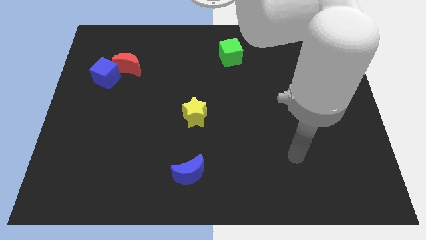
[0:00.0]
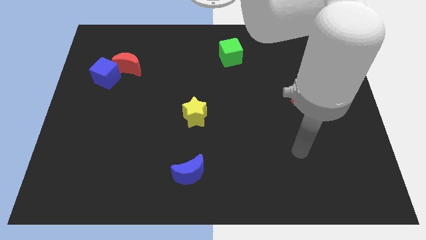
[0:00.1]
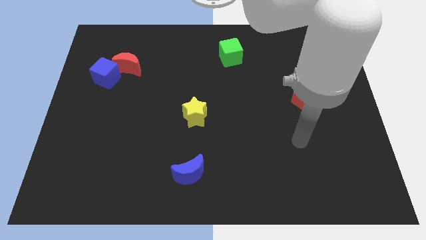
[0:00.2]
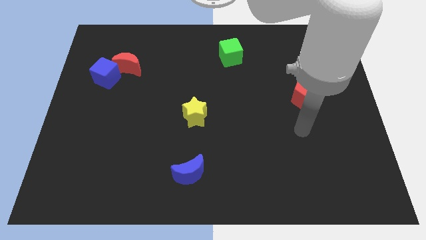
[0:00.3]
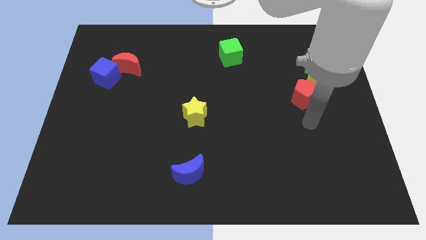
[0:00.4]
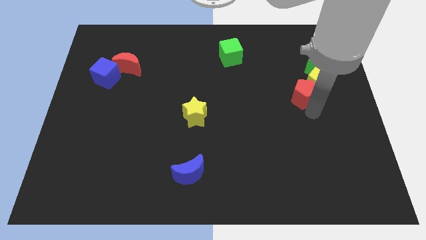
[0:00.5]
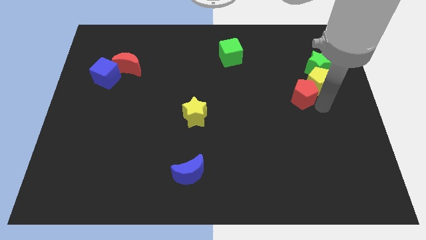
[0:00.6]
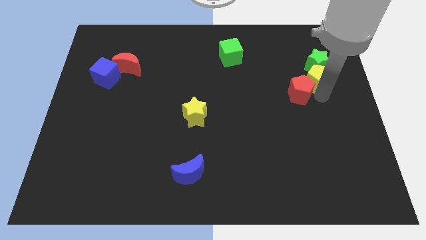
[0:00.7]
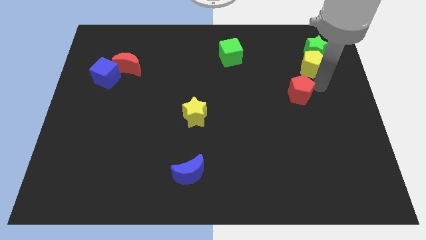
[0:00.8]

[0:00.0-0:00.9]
move the red pentagon away from the yellow pentagon

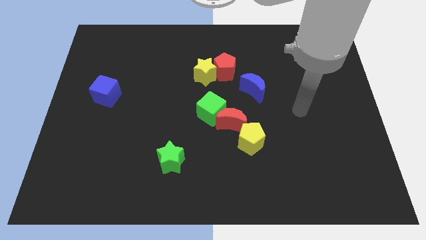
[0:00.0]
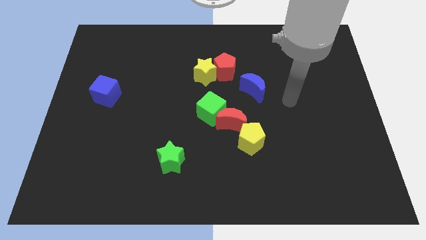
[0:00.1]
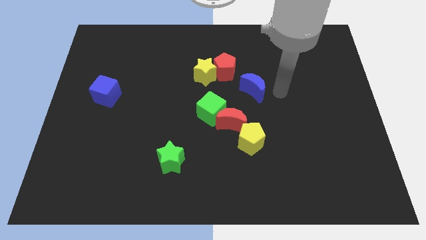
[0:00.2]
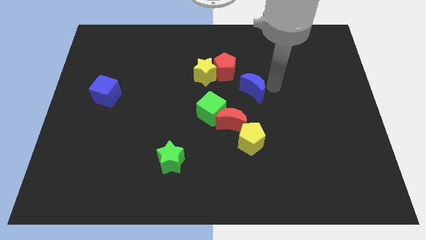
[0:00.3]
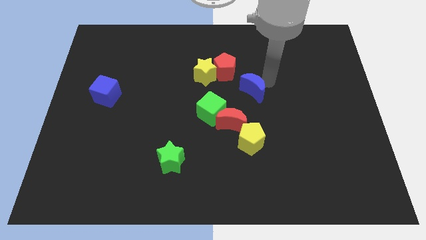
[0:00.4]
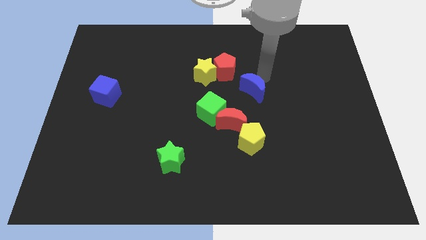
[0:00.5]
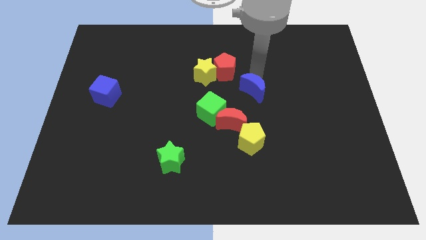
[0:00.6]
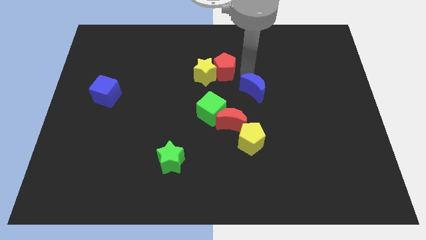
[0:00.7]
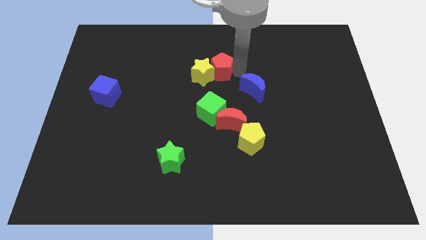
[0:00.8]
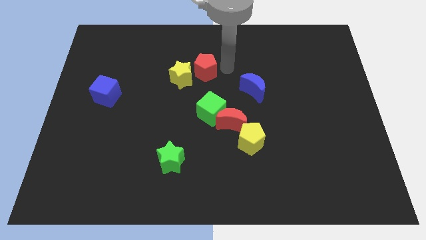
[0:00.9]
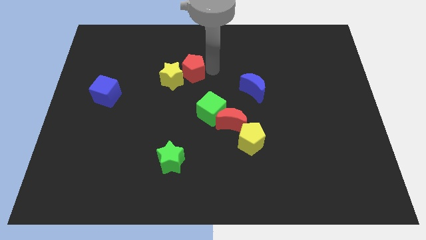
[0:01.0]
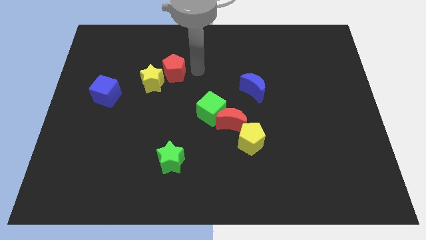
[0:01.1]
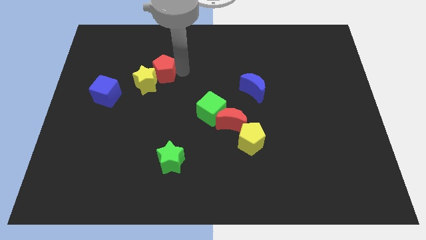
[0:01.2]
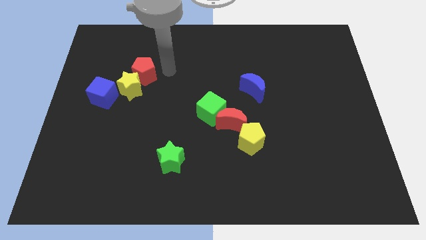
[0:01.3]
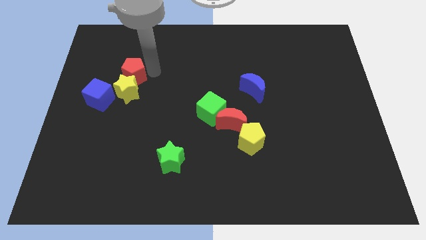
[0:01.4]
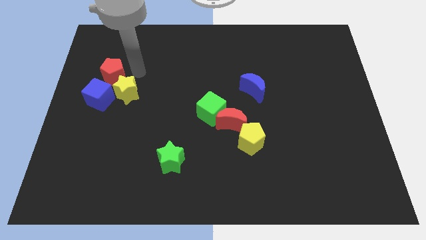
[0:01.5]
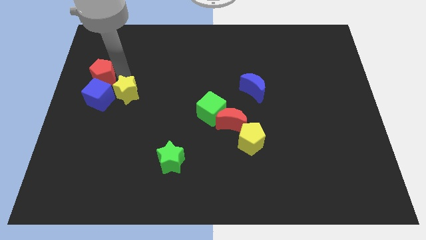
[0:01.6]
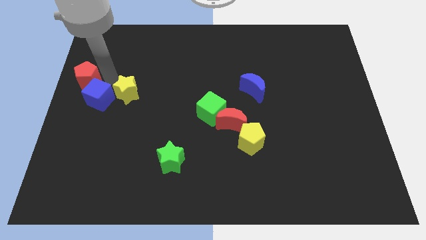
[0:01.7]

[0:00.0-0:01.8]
pull the yellow star apart from the red pentagon

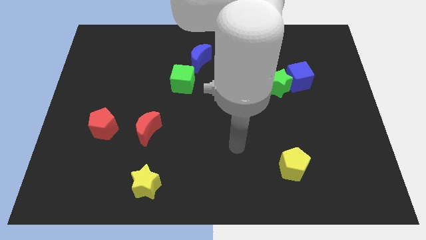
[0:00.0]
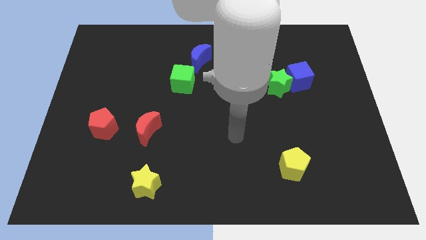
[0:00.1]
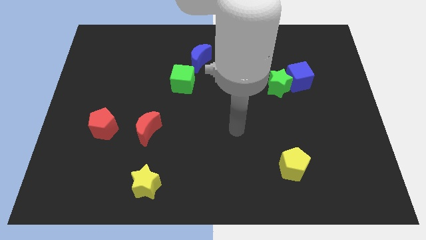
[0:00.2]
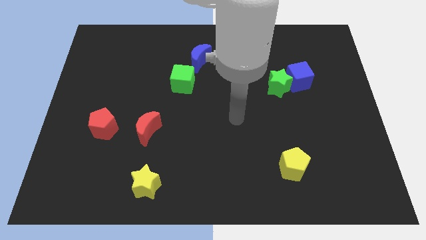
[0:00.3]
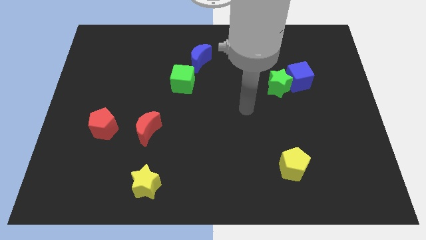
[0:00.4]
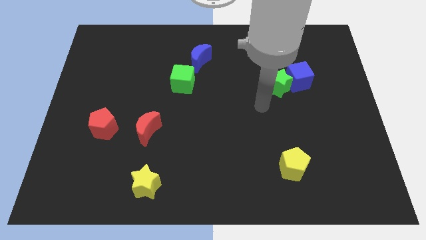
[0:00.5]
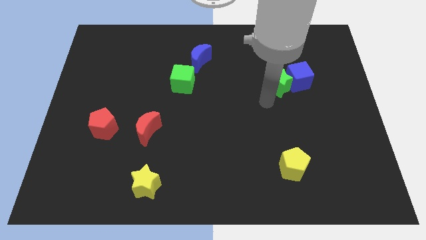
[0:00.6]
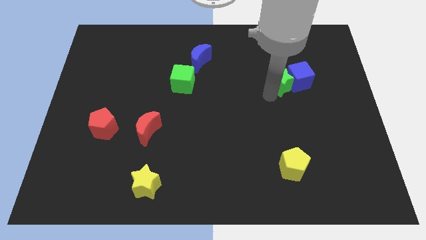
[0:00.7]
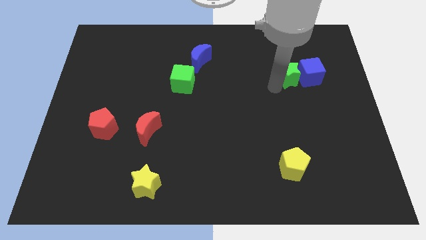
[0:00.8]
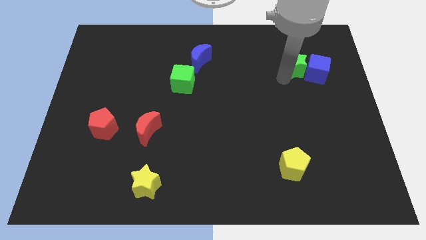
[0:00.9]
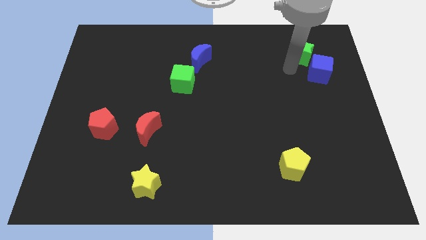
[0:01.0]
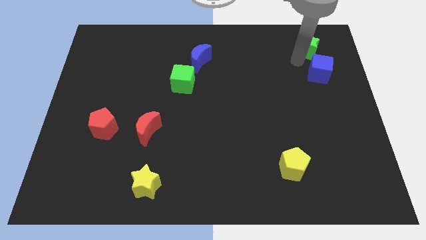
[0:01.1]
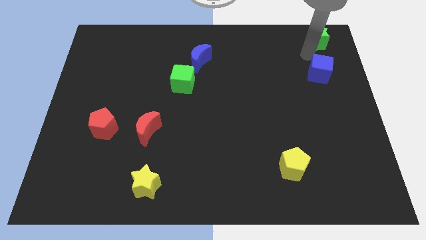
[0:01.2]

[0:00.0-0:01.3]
move the blue cube away from the green star

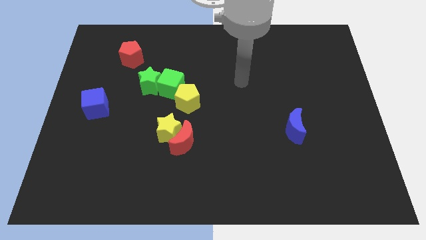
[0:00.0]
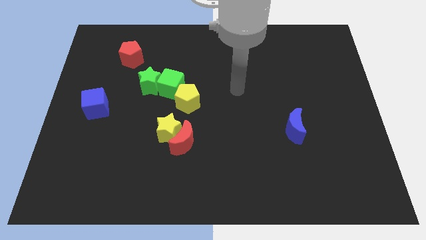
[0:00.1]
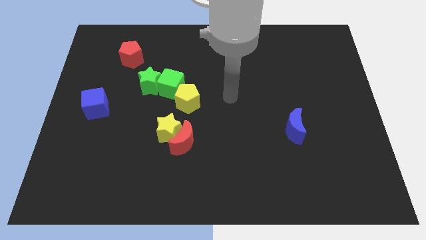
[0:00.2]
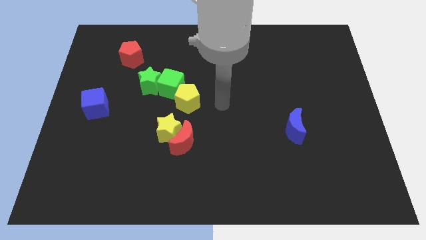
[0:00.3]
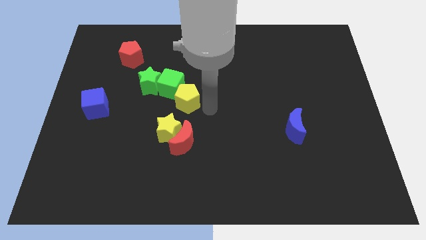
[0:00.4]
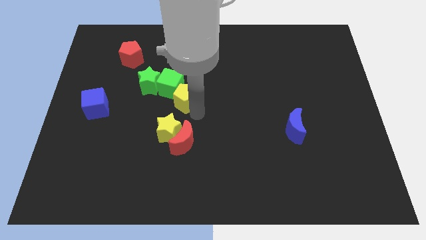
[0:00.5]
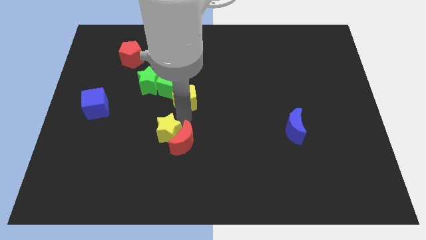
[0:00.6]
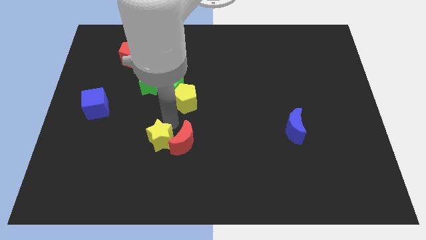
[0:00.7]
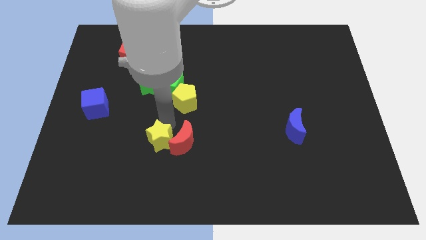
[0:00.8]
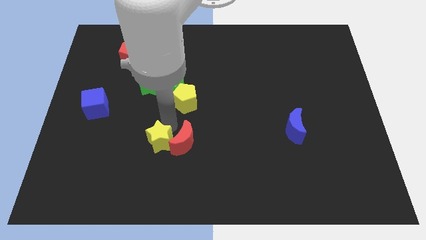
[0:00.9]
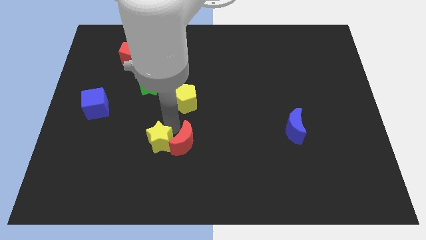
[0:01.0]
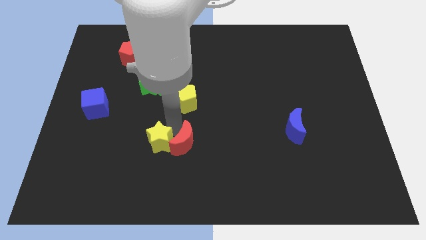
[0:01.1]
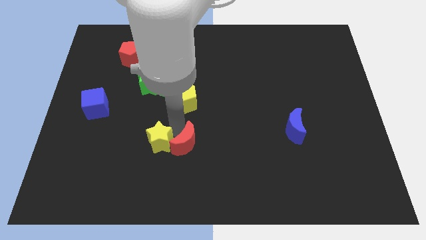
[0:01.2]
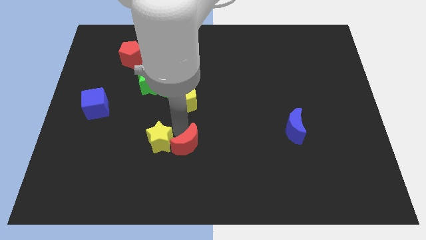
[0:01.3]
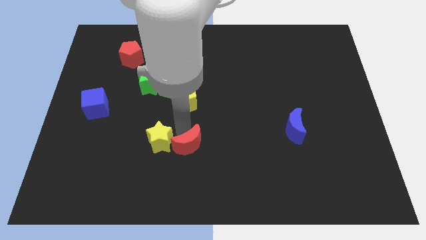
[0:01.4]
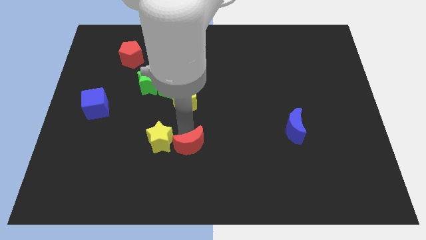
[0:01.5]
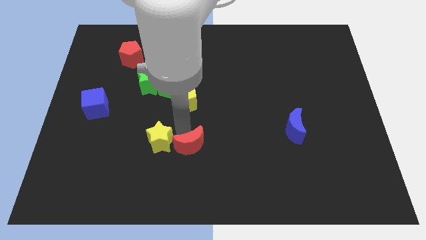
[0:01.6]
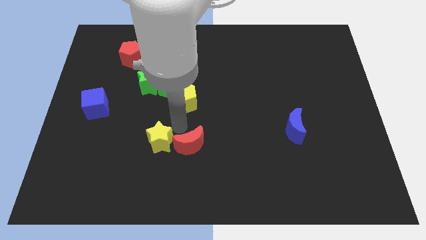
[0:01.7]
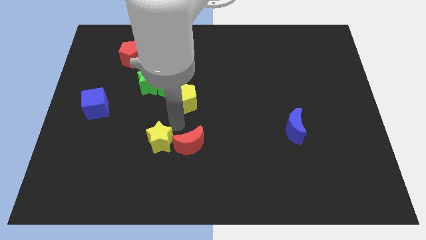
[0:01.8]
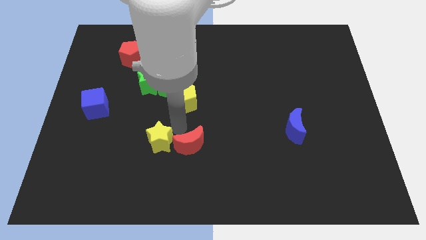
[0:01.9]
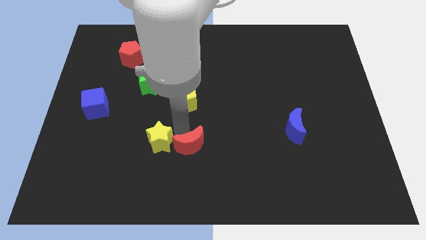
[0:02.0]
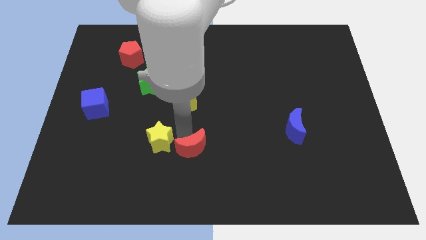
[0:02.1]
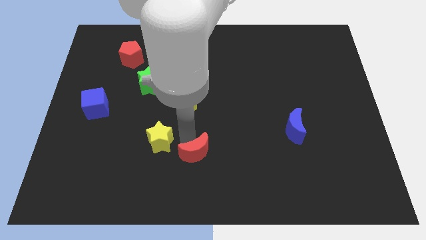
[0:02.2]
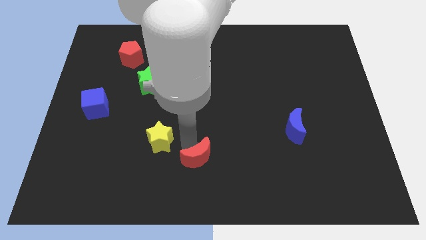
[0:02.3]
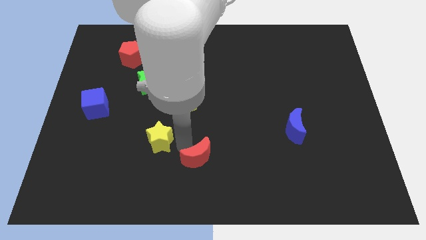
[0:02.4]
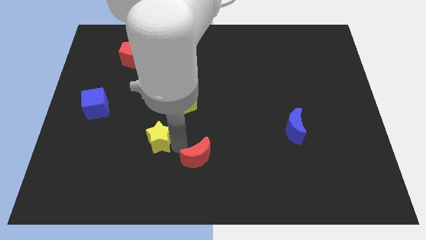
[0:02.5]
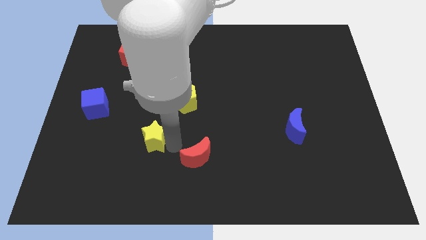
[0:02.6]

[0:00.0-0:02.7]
pull the red moon apart from the yellow star

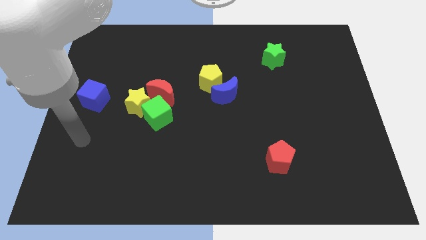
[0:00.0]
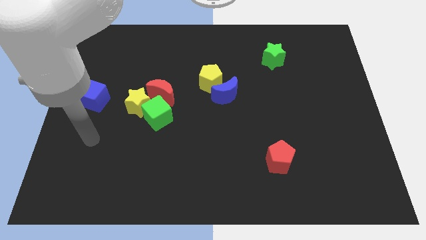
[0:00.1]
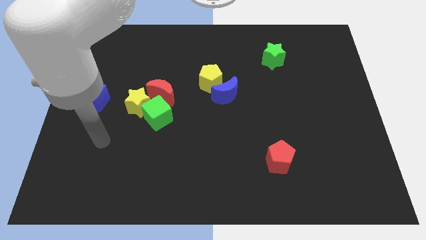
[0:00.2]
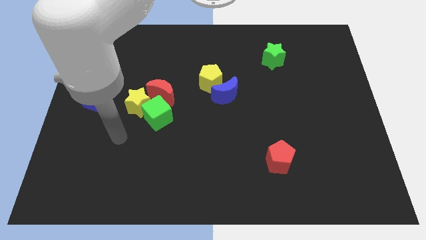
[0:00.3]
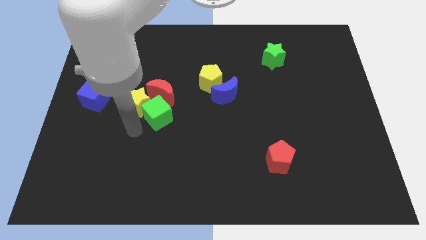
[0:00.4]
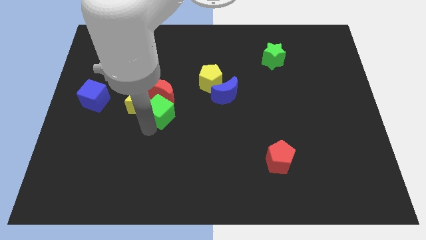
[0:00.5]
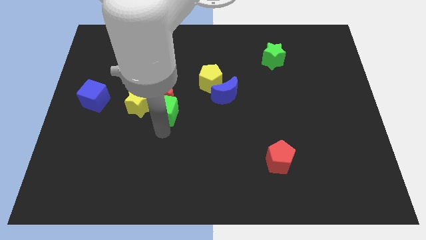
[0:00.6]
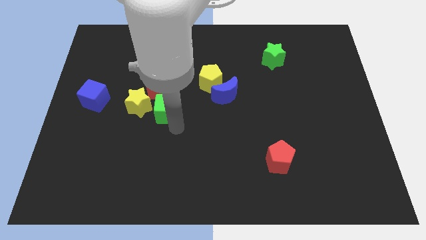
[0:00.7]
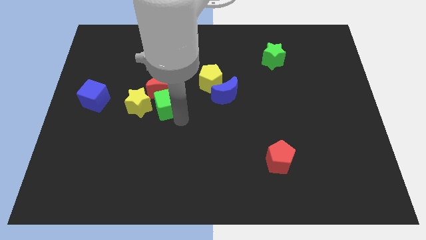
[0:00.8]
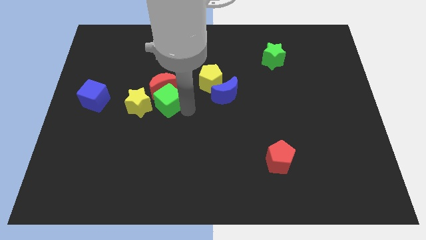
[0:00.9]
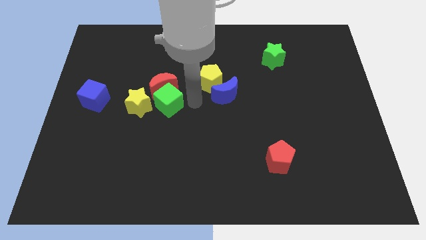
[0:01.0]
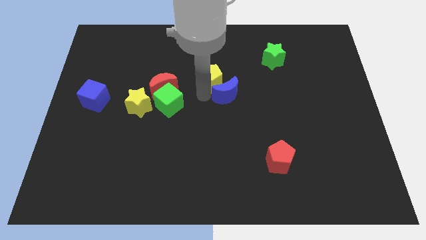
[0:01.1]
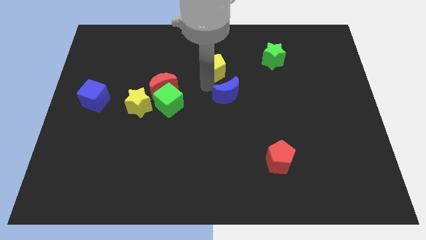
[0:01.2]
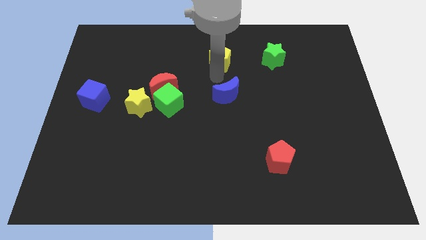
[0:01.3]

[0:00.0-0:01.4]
pull the blue moon apart from the yellow pentagon

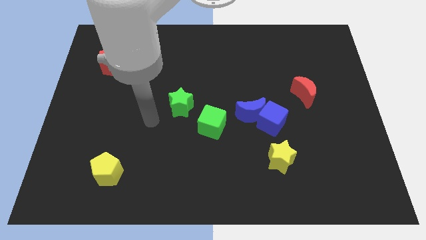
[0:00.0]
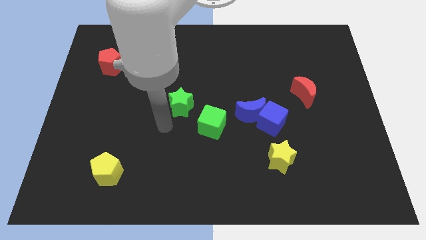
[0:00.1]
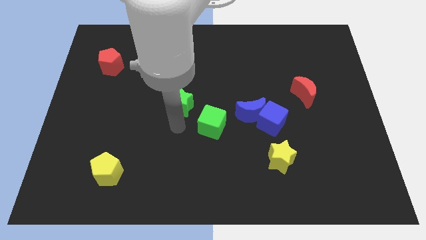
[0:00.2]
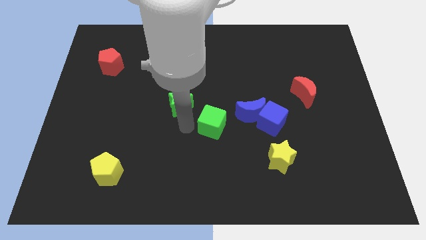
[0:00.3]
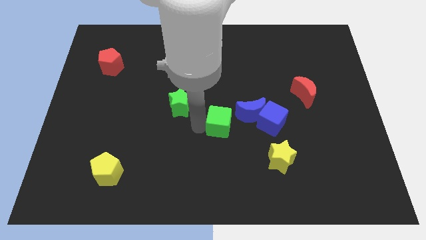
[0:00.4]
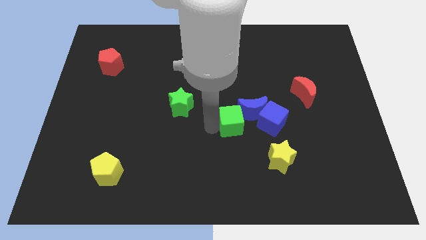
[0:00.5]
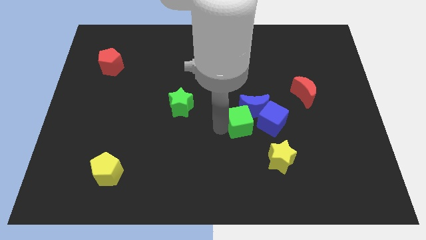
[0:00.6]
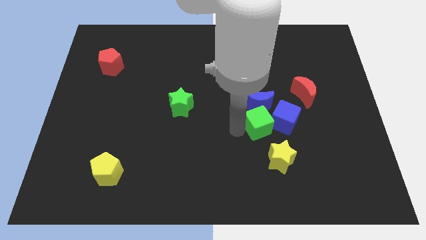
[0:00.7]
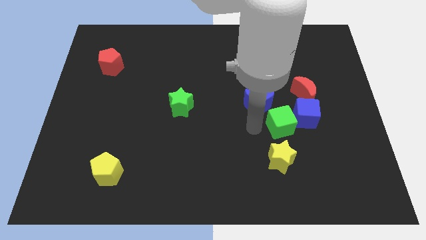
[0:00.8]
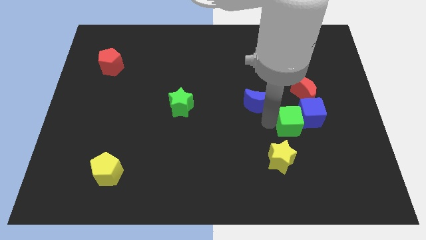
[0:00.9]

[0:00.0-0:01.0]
move the blue moon away from the blue cube and green cube

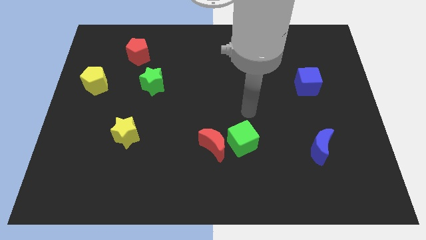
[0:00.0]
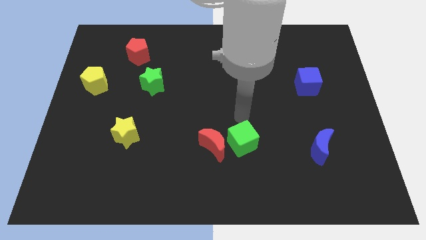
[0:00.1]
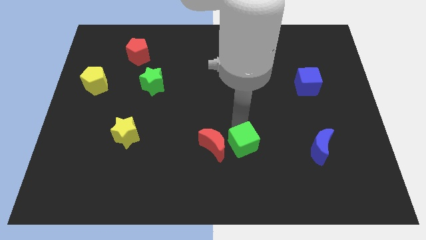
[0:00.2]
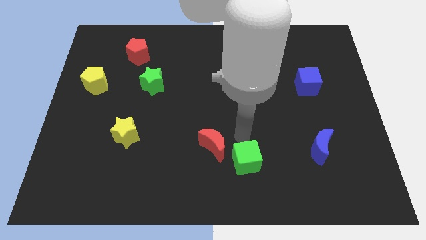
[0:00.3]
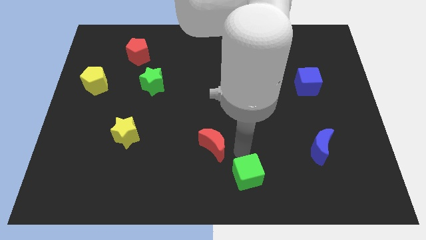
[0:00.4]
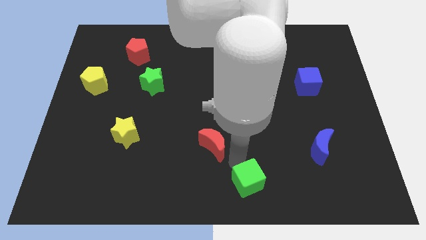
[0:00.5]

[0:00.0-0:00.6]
separate the red moon from the green cube
